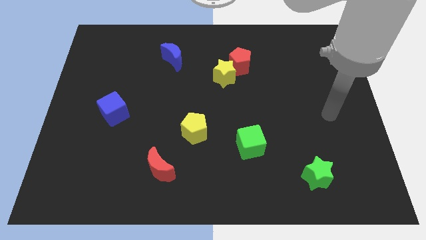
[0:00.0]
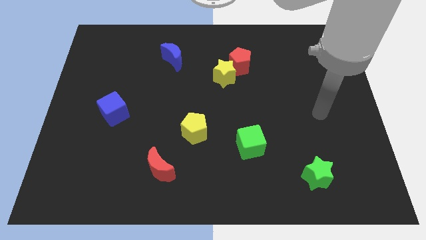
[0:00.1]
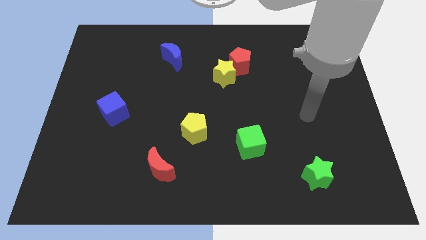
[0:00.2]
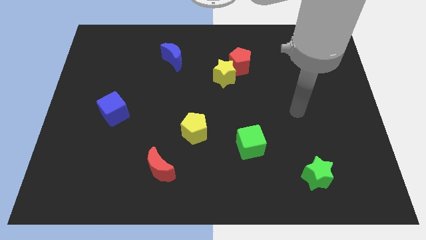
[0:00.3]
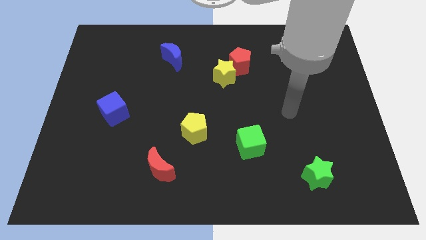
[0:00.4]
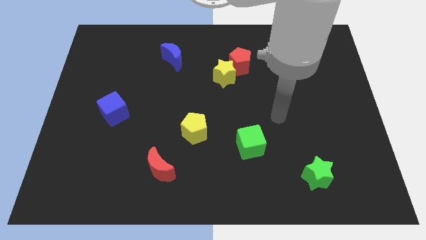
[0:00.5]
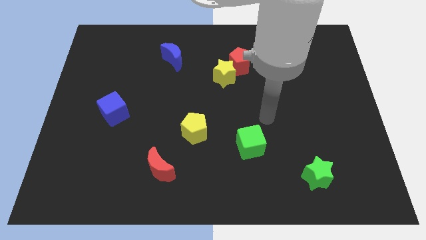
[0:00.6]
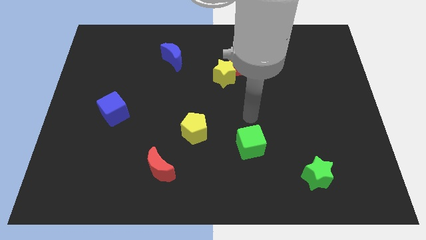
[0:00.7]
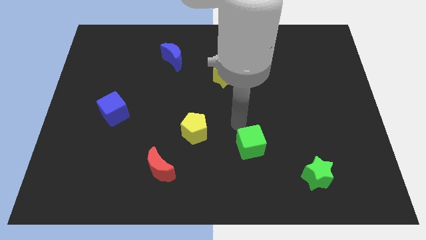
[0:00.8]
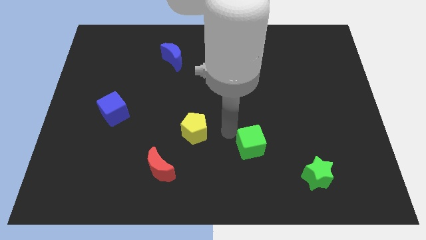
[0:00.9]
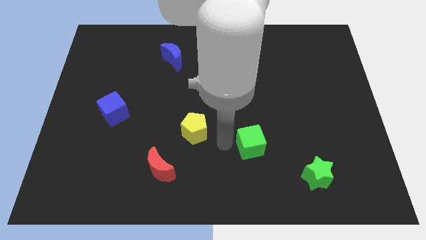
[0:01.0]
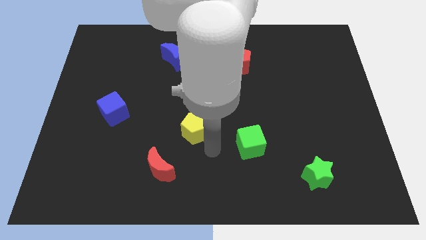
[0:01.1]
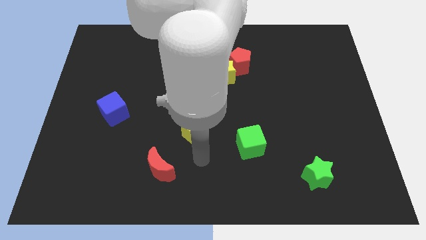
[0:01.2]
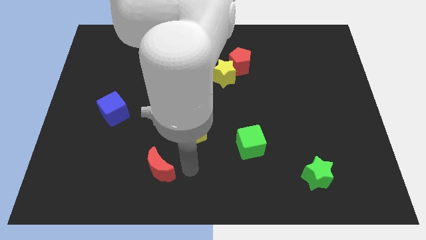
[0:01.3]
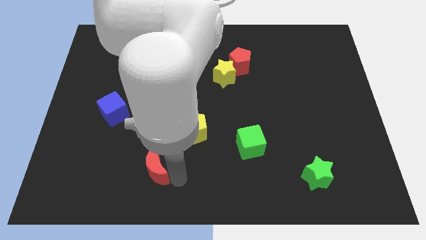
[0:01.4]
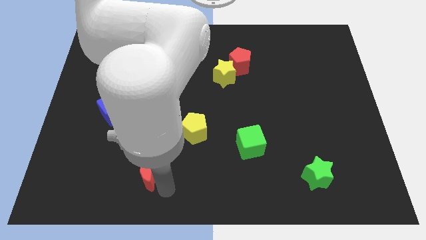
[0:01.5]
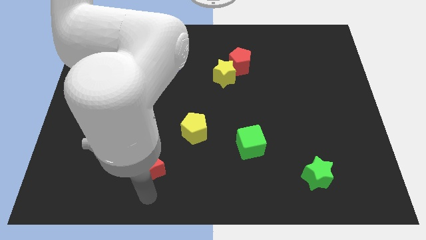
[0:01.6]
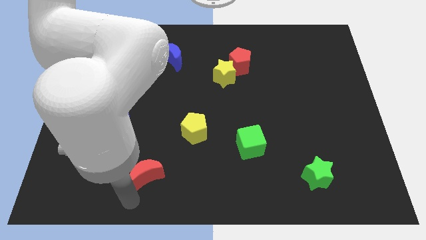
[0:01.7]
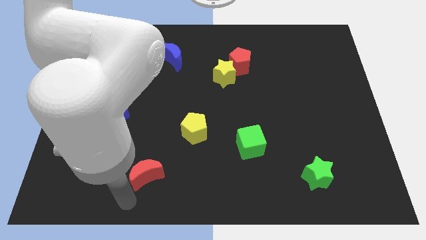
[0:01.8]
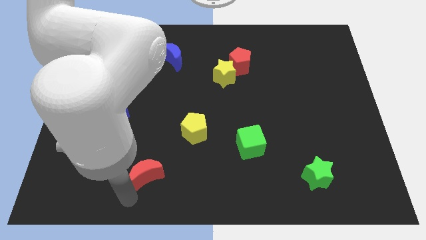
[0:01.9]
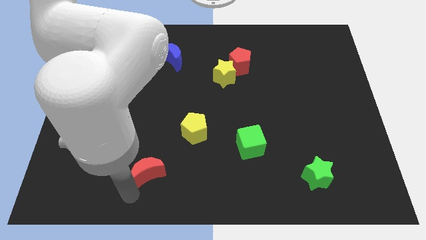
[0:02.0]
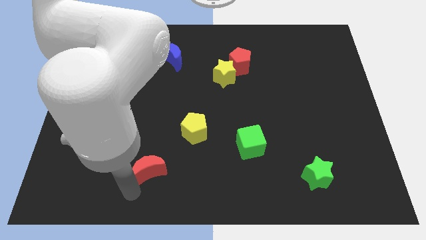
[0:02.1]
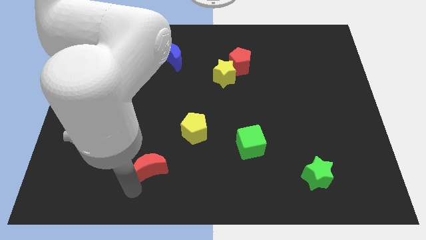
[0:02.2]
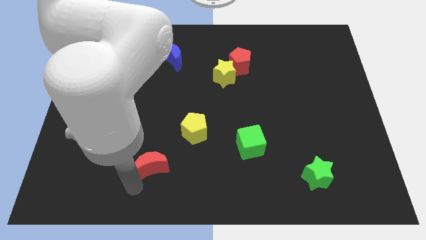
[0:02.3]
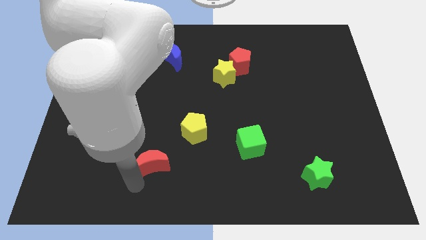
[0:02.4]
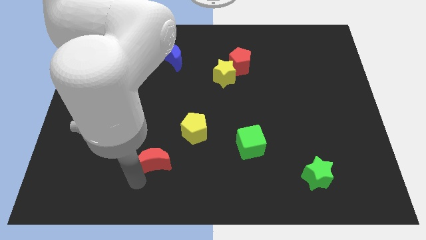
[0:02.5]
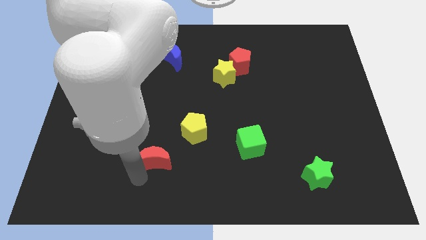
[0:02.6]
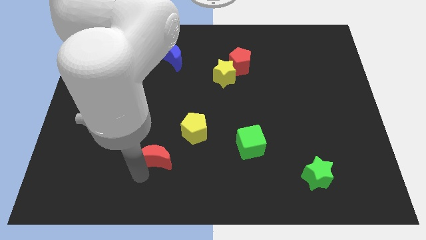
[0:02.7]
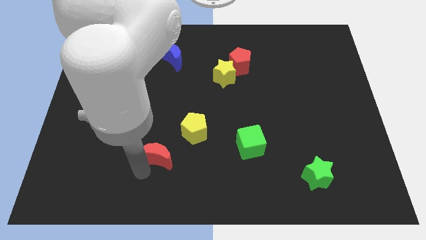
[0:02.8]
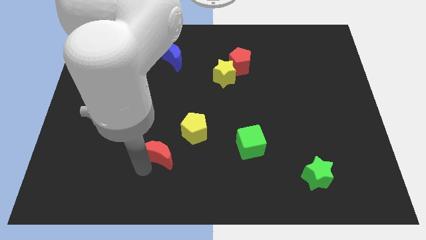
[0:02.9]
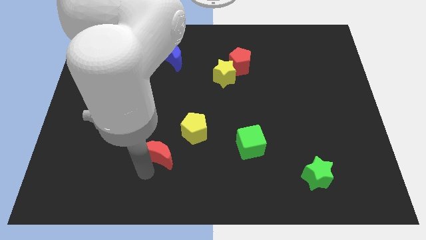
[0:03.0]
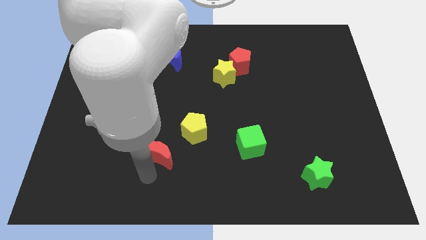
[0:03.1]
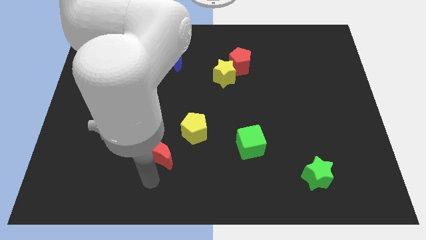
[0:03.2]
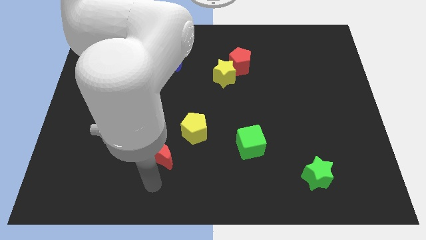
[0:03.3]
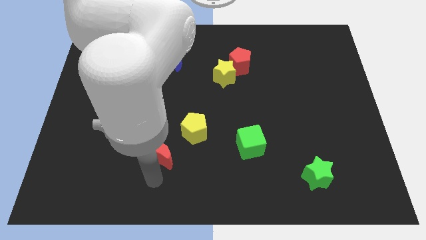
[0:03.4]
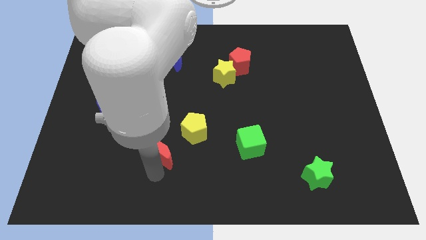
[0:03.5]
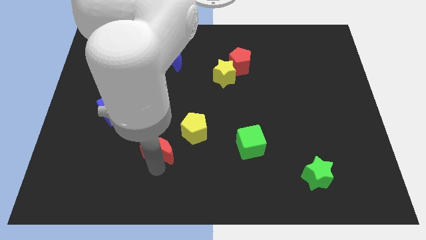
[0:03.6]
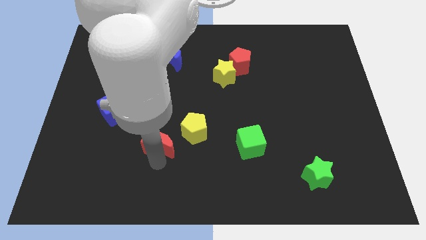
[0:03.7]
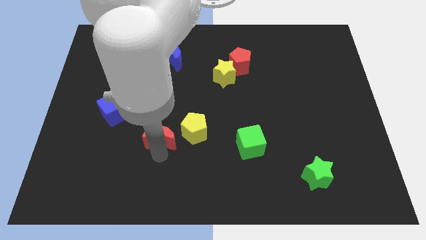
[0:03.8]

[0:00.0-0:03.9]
push the red moon a little bit up

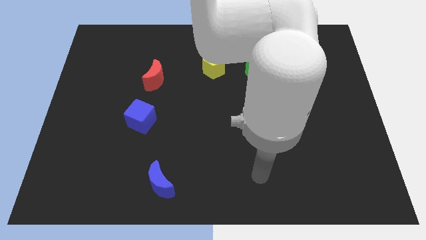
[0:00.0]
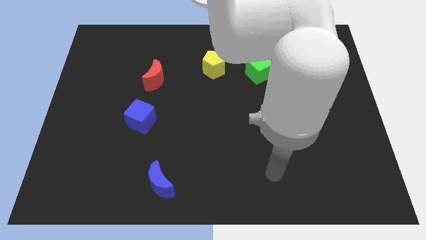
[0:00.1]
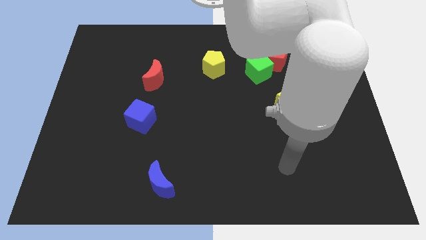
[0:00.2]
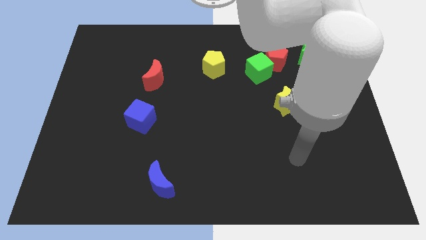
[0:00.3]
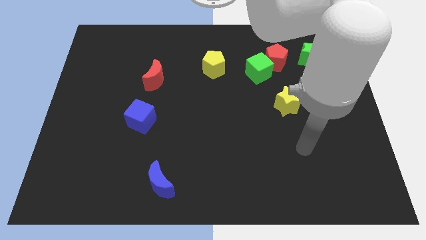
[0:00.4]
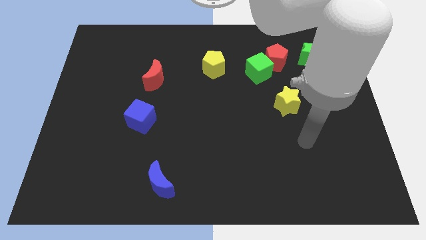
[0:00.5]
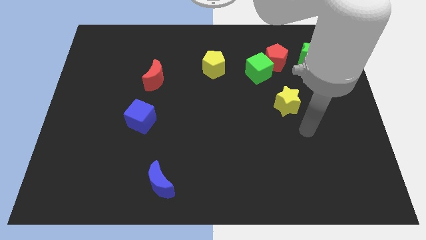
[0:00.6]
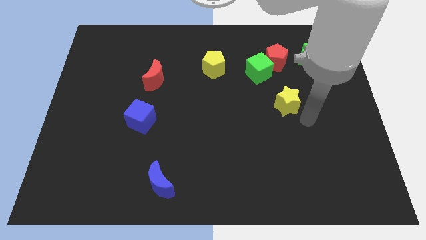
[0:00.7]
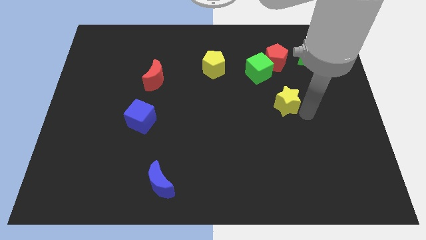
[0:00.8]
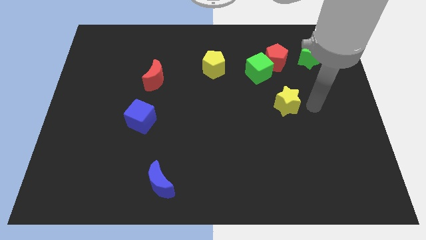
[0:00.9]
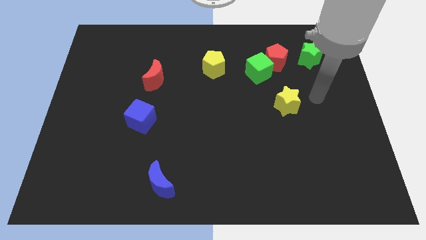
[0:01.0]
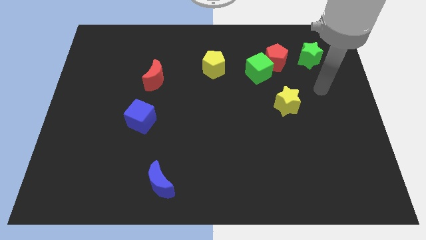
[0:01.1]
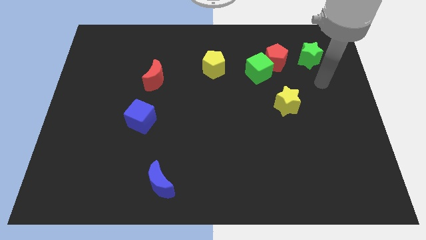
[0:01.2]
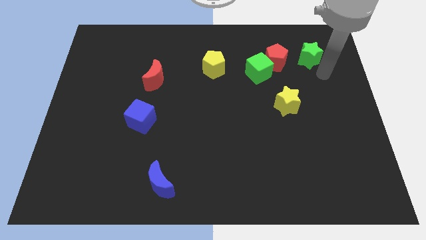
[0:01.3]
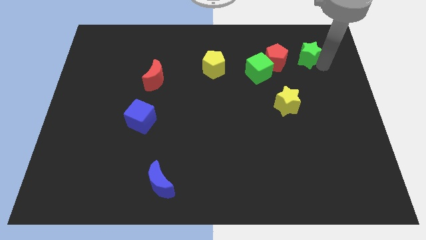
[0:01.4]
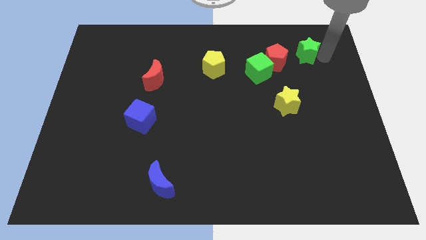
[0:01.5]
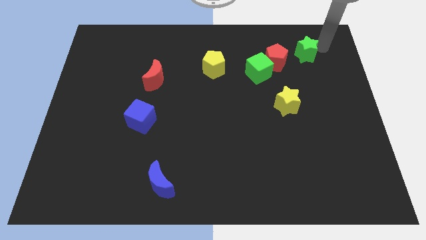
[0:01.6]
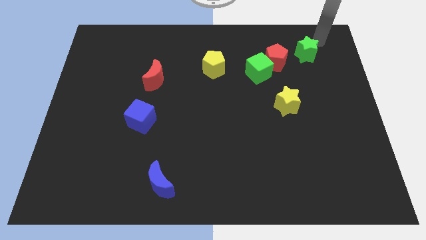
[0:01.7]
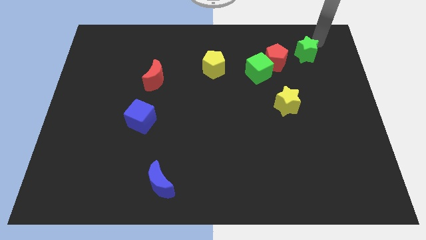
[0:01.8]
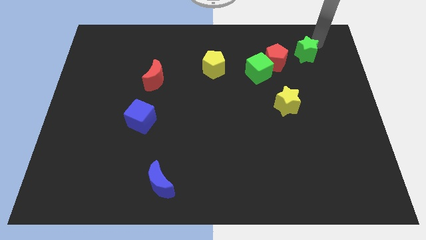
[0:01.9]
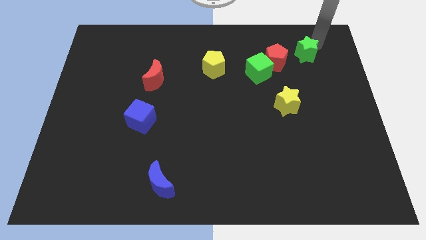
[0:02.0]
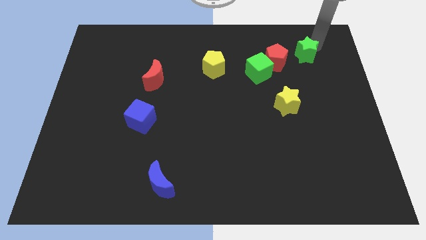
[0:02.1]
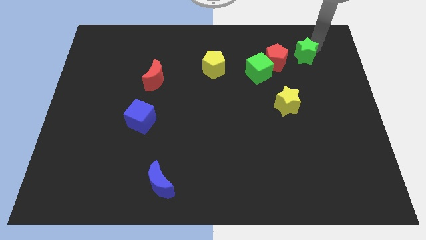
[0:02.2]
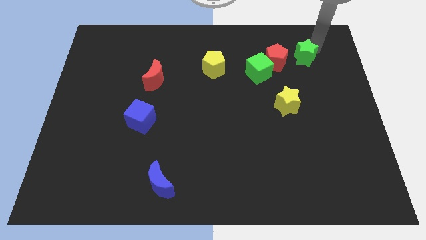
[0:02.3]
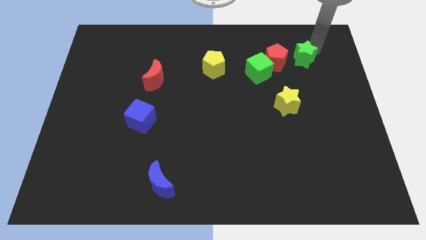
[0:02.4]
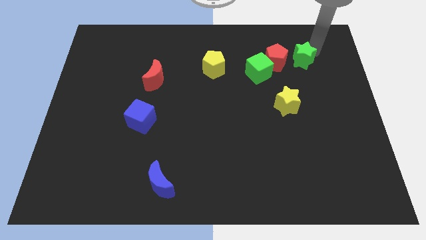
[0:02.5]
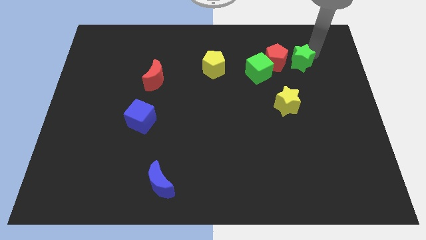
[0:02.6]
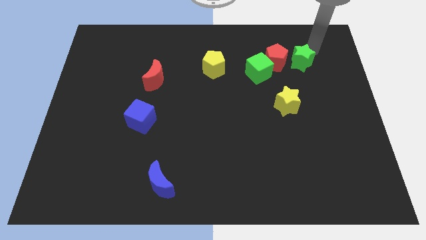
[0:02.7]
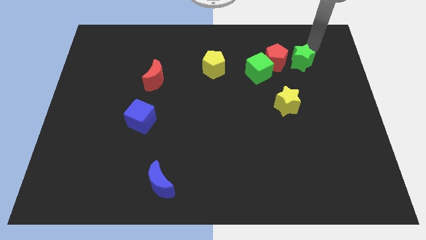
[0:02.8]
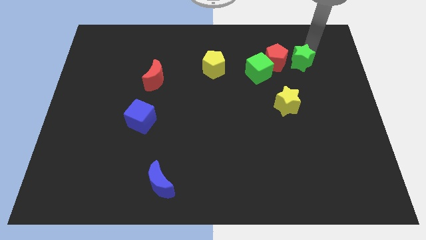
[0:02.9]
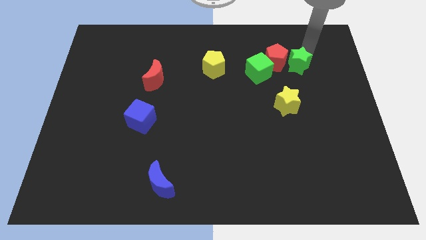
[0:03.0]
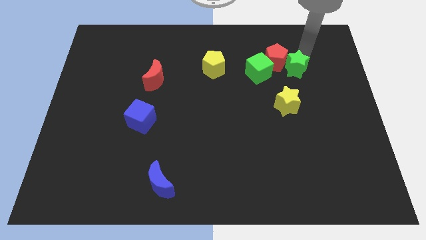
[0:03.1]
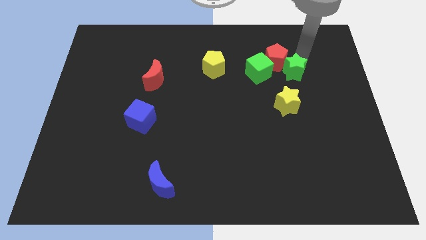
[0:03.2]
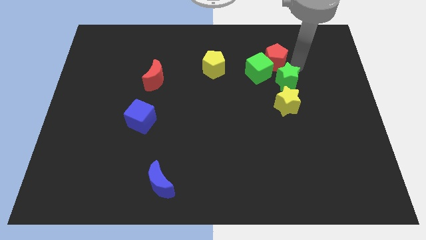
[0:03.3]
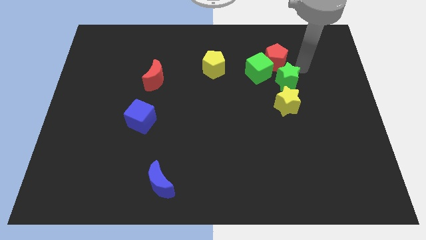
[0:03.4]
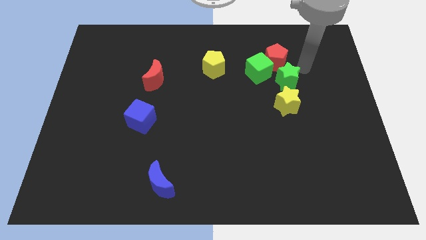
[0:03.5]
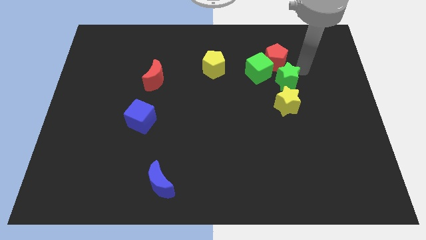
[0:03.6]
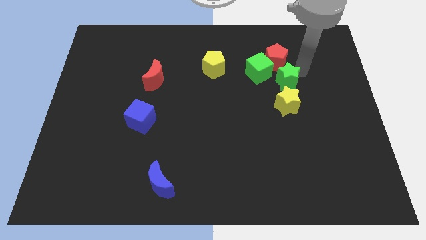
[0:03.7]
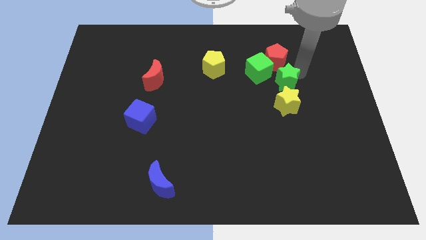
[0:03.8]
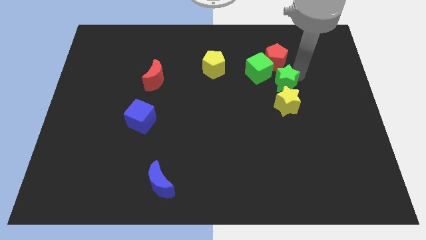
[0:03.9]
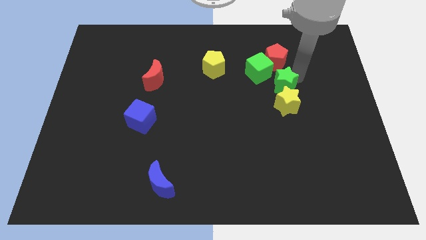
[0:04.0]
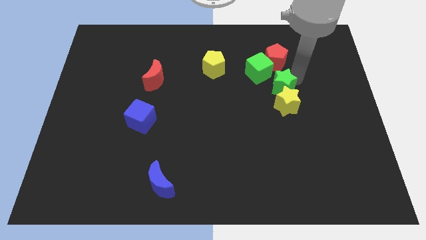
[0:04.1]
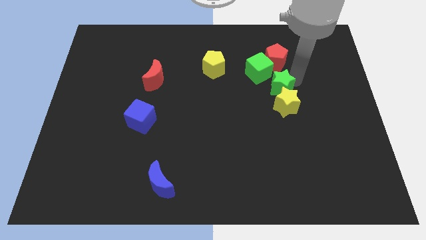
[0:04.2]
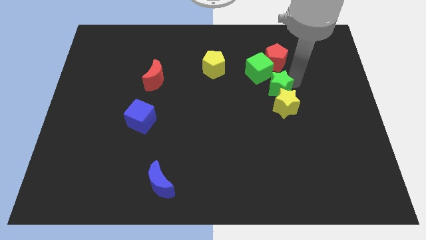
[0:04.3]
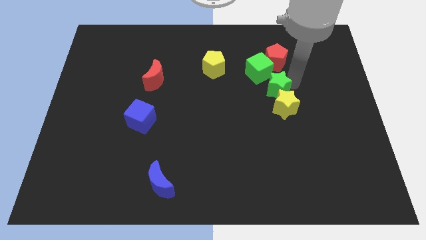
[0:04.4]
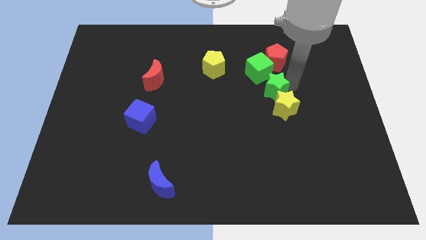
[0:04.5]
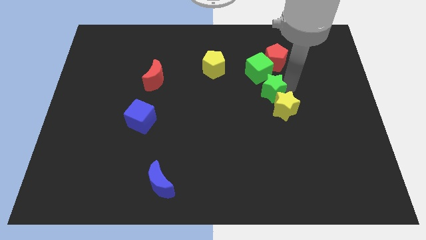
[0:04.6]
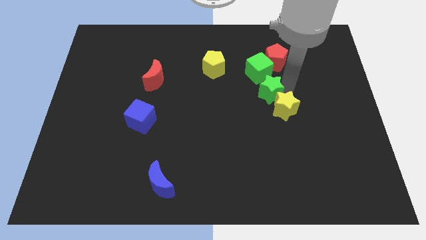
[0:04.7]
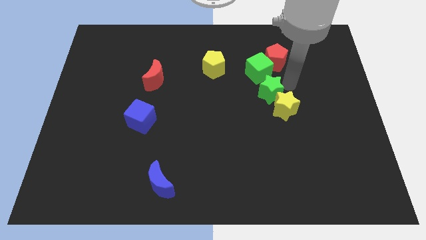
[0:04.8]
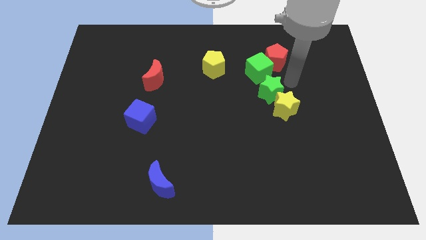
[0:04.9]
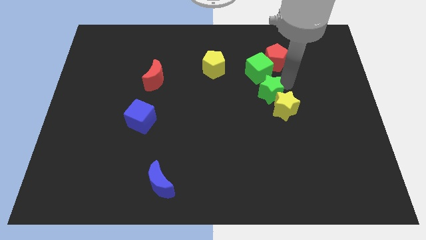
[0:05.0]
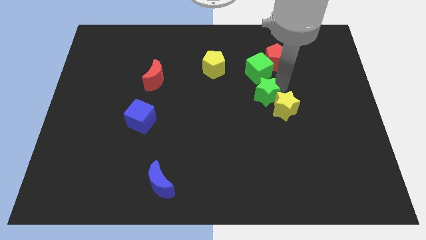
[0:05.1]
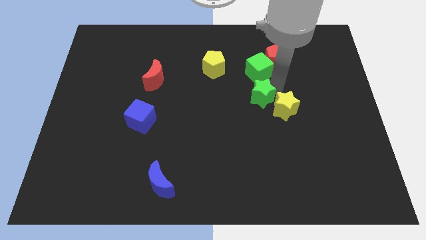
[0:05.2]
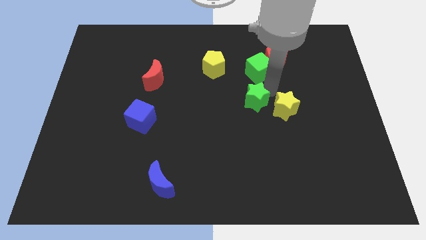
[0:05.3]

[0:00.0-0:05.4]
slide the green star diagonally down and left
